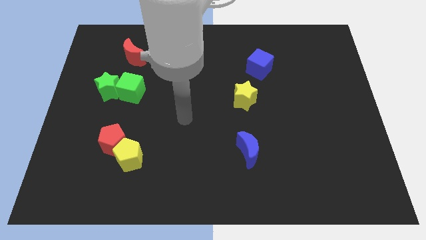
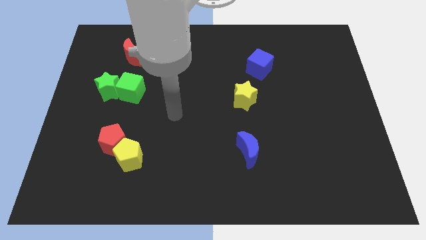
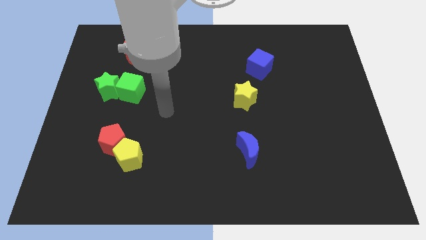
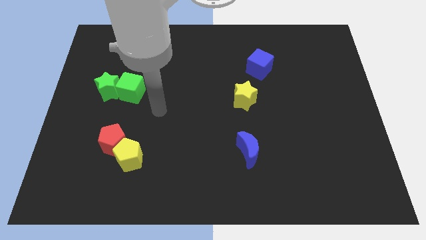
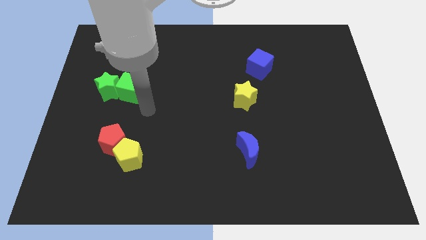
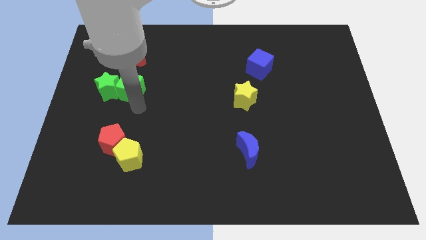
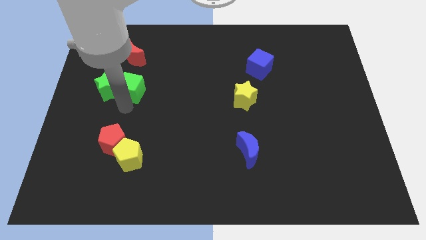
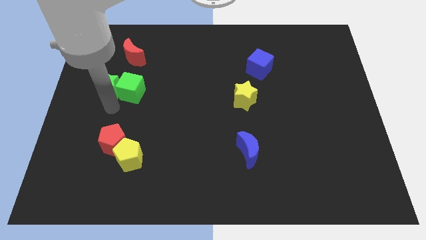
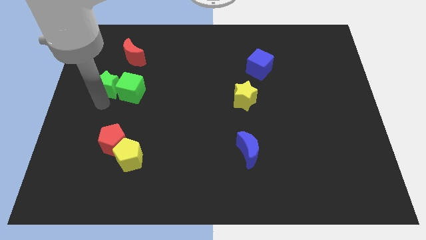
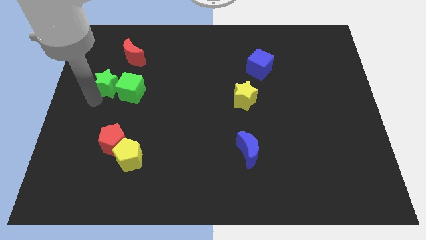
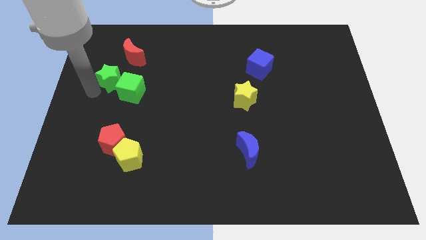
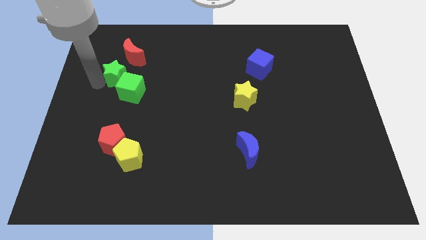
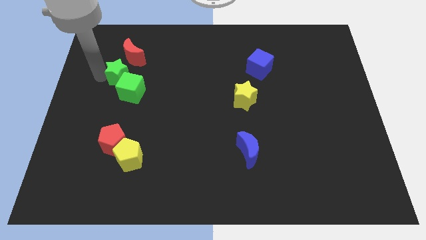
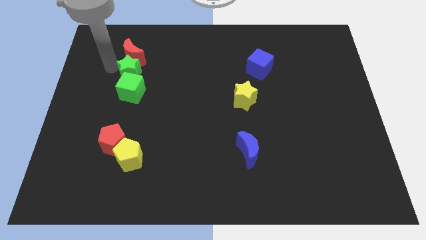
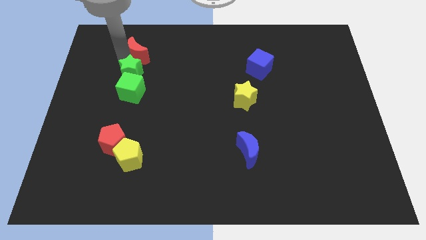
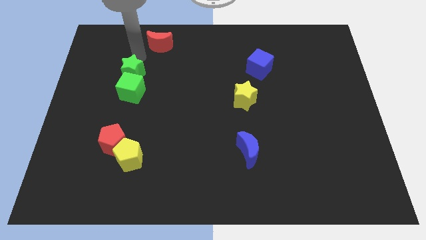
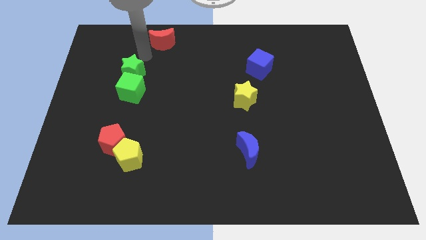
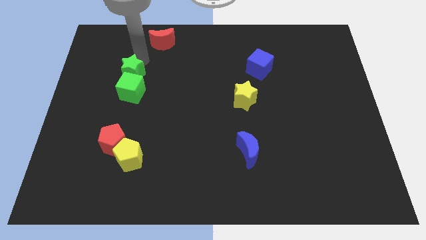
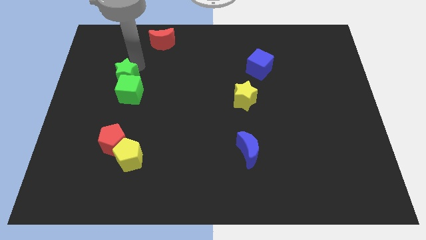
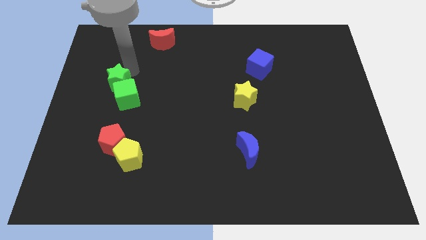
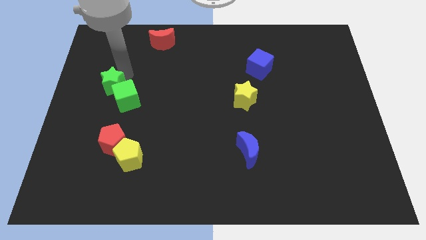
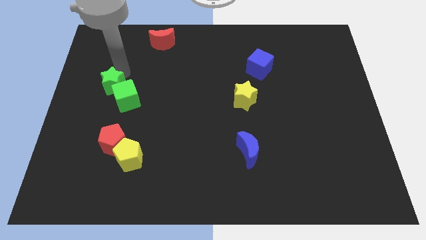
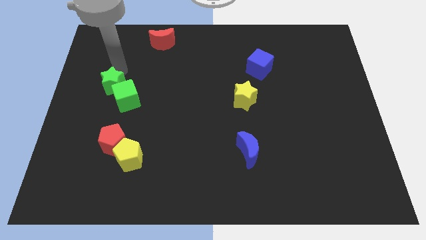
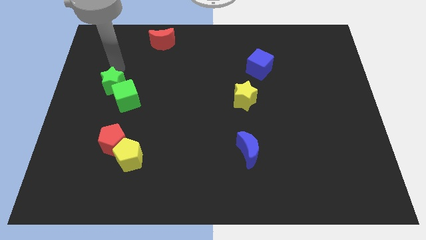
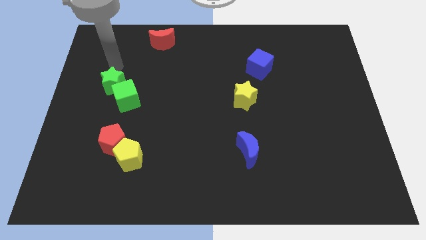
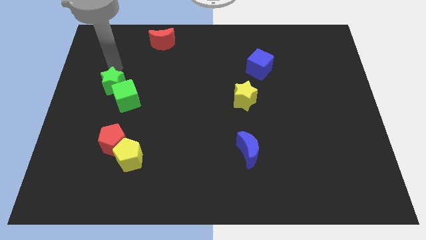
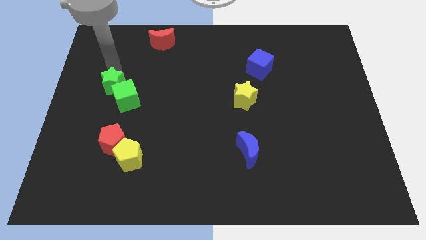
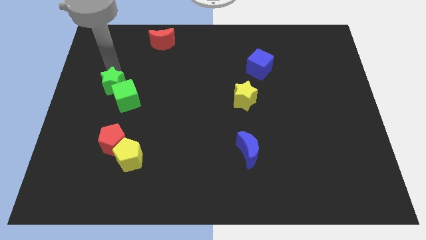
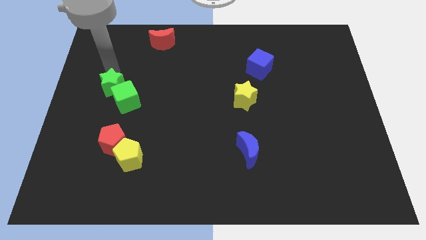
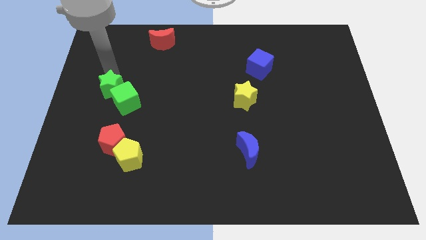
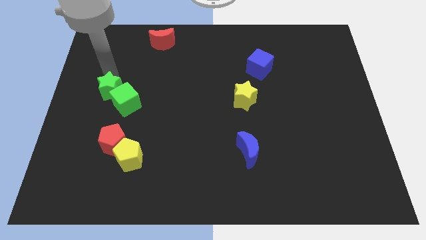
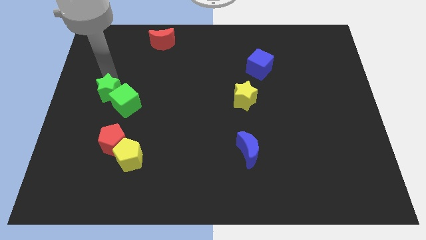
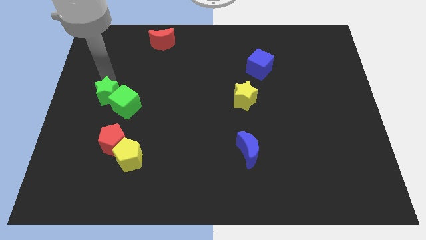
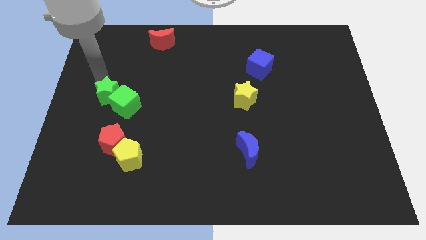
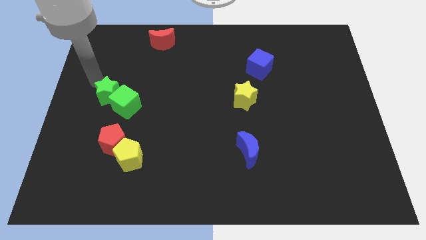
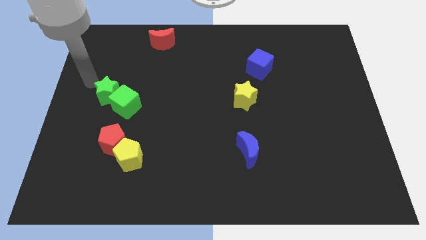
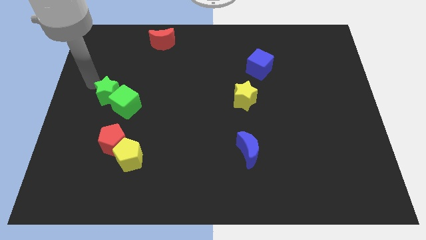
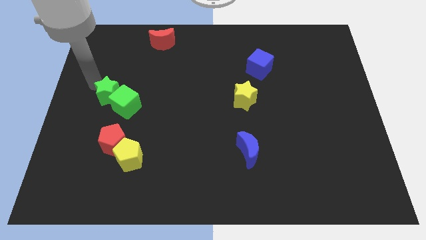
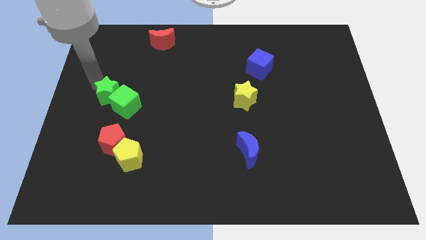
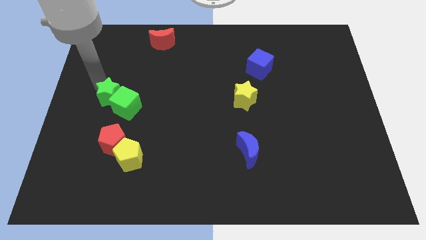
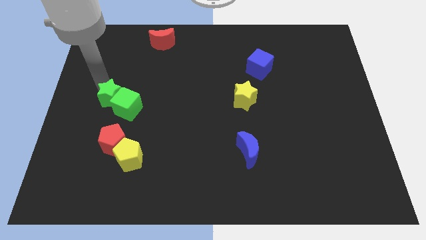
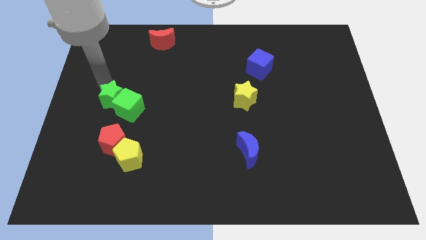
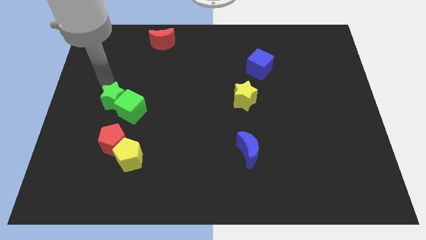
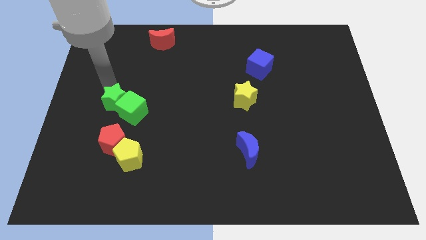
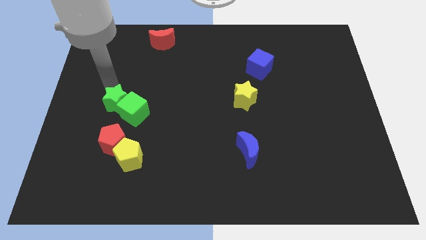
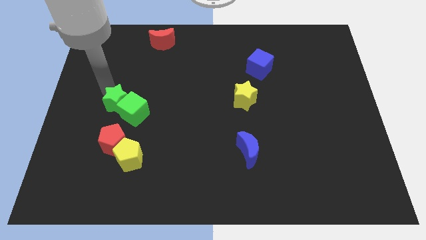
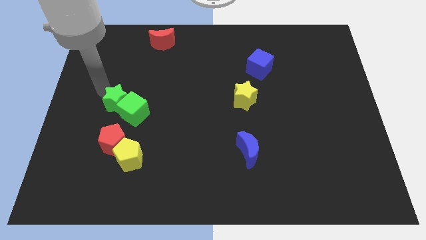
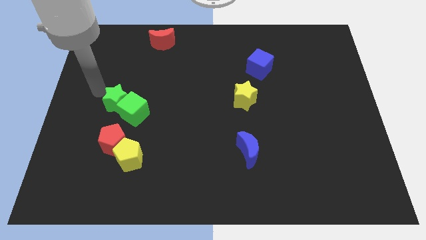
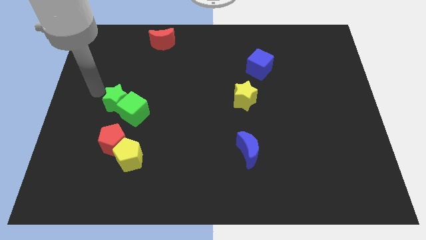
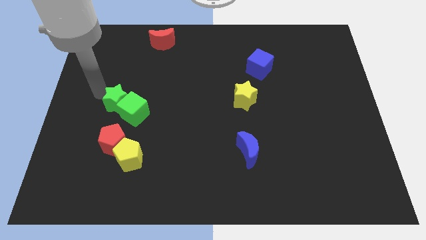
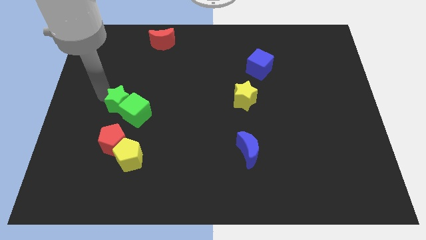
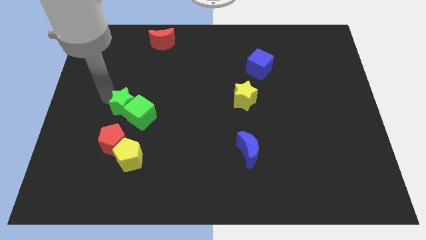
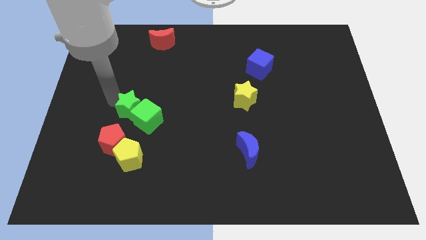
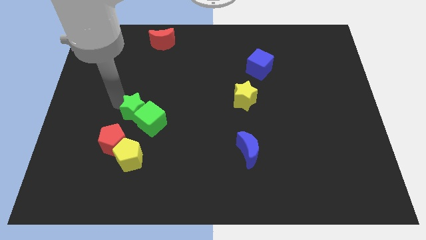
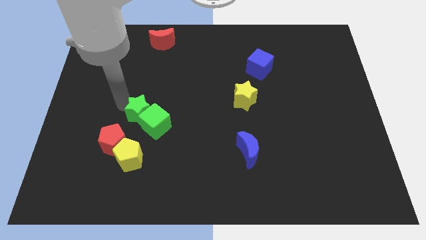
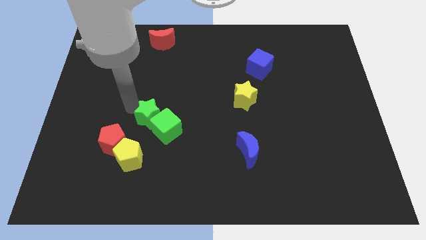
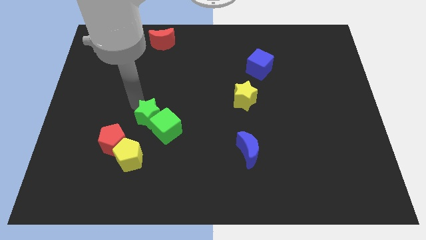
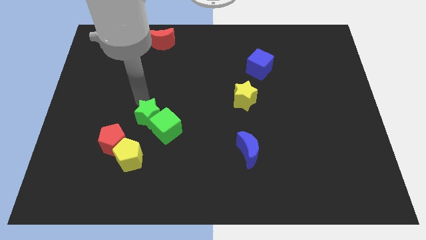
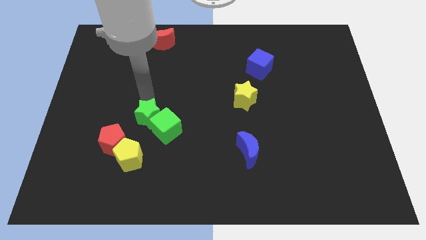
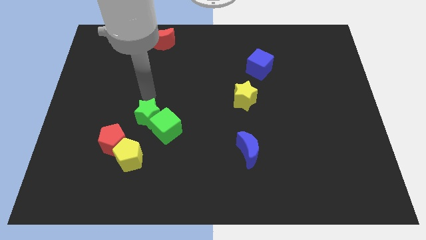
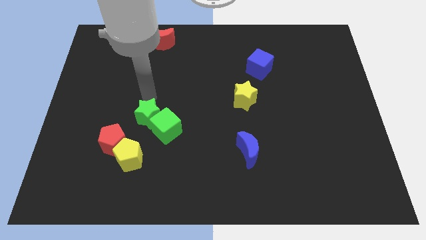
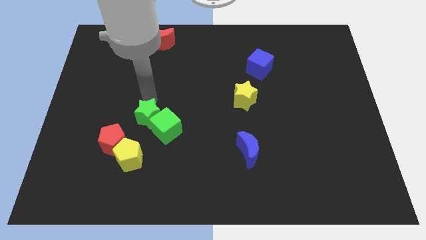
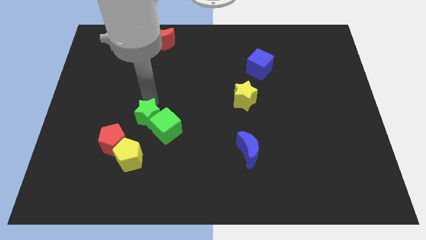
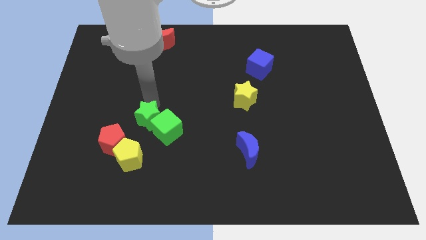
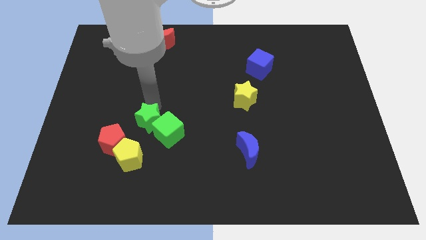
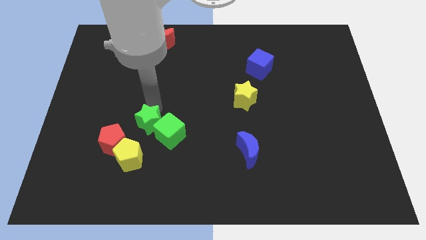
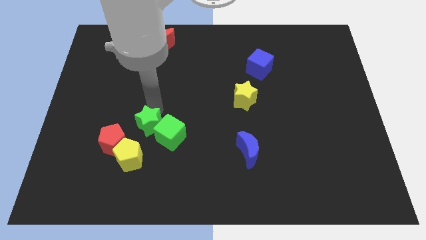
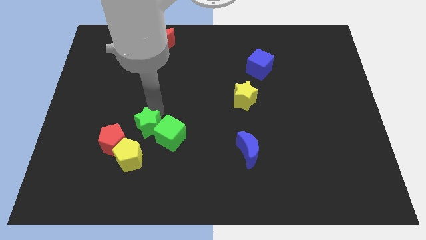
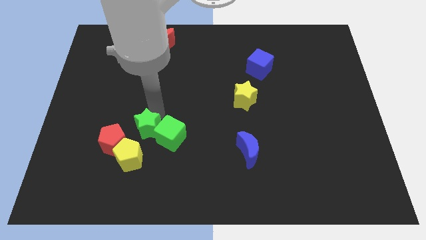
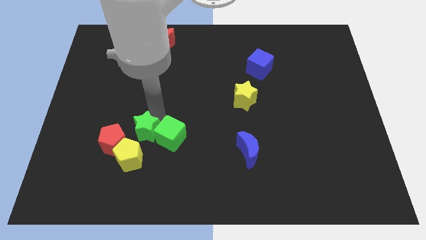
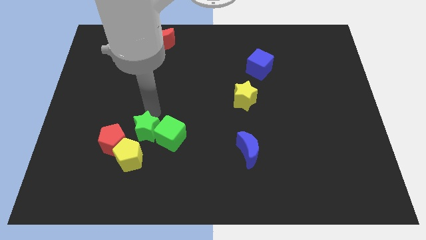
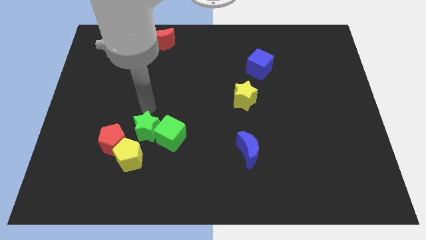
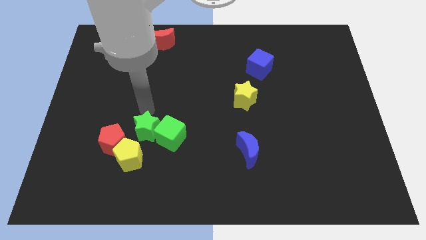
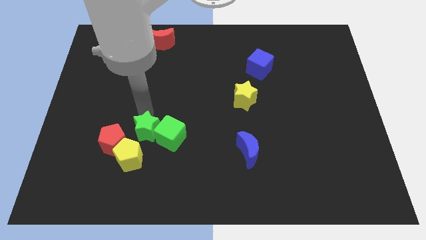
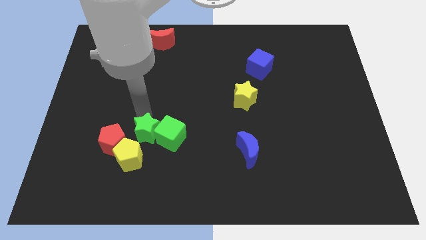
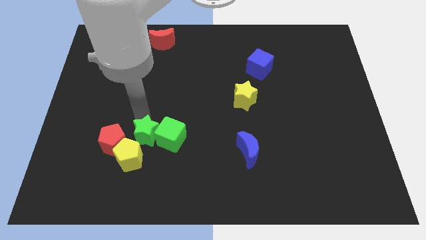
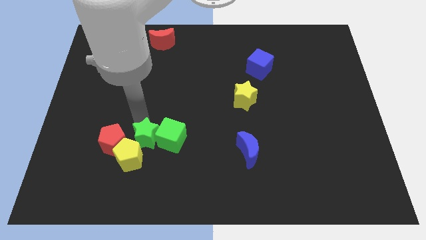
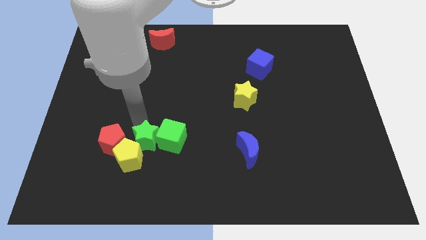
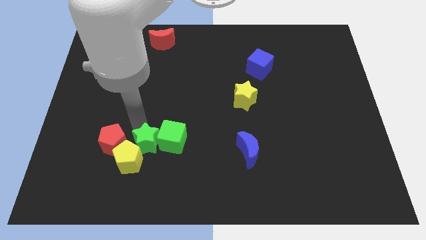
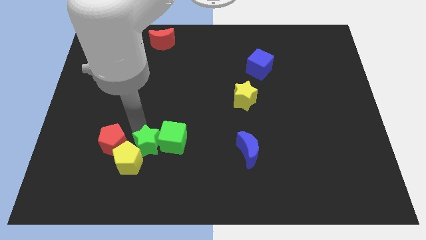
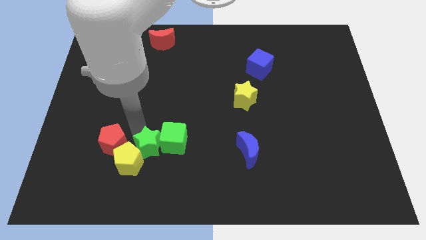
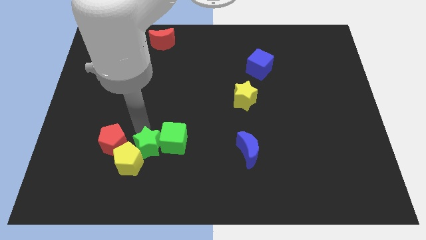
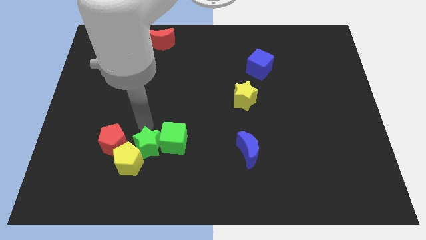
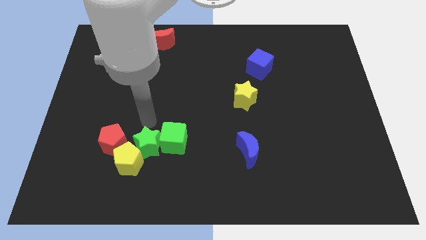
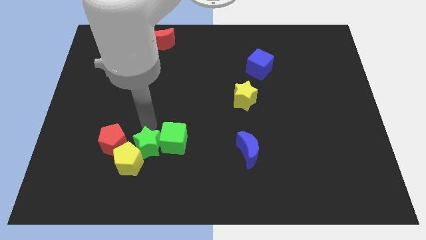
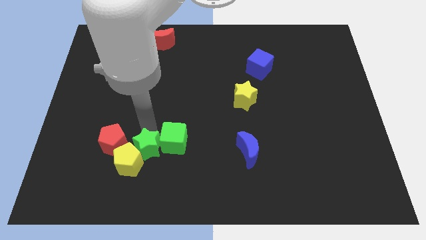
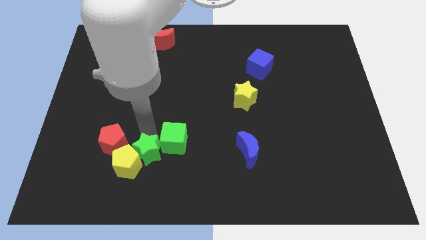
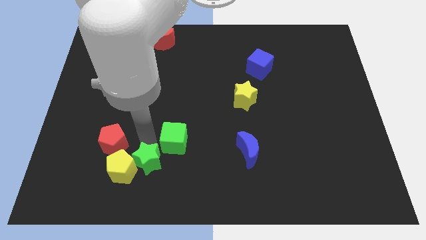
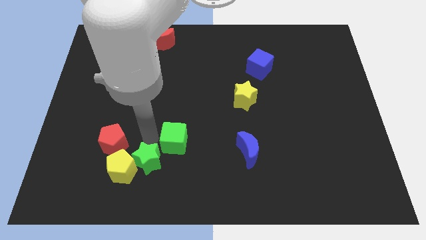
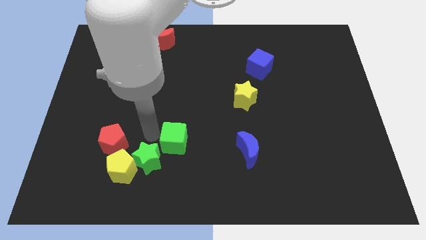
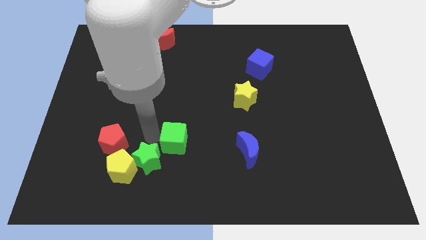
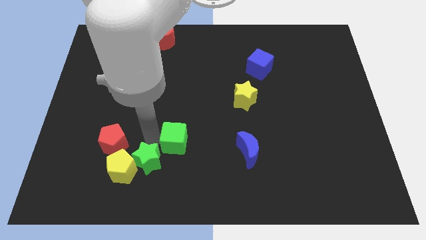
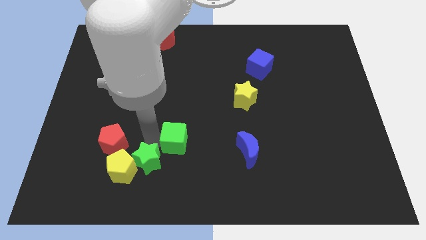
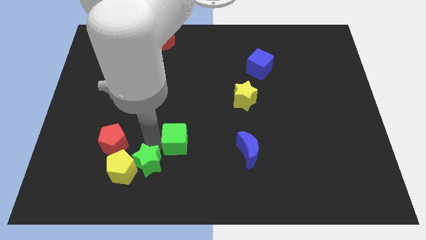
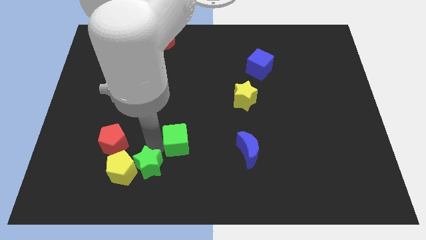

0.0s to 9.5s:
slide the green star diagonally down and to the right of the yellow pentagon
